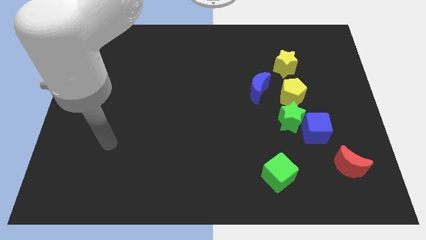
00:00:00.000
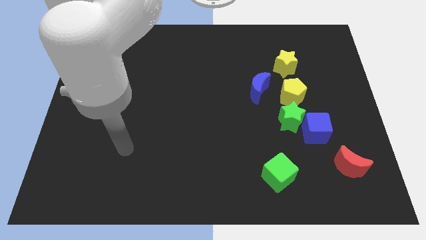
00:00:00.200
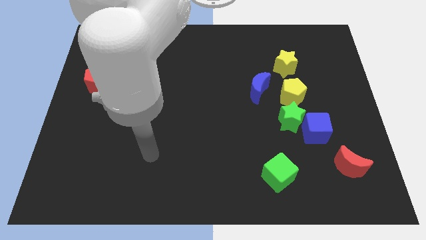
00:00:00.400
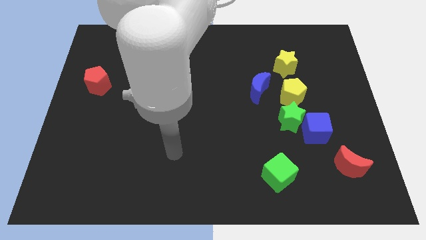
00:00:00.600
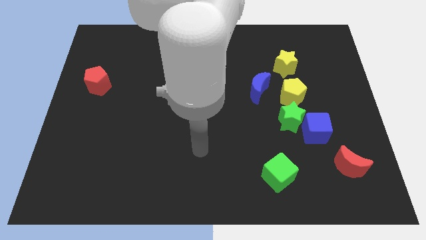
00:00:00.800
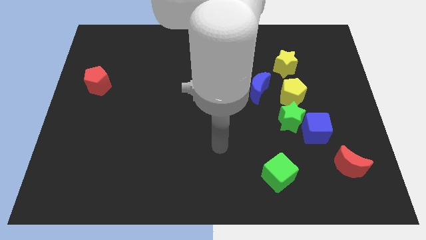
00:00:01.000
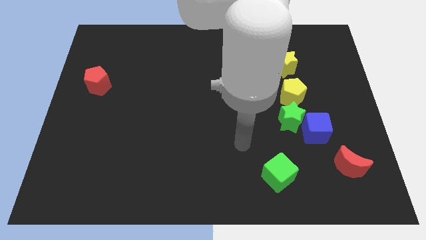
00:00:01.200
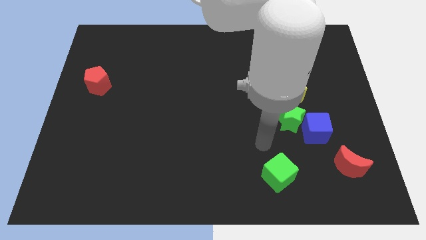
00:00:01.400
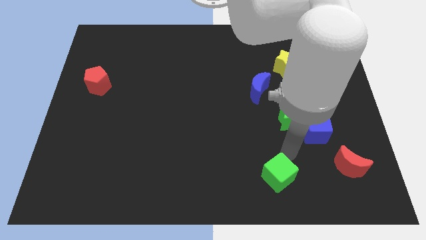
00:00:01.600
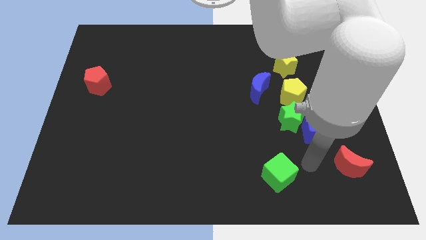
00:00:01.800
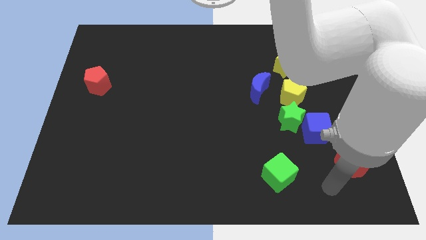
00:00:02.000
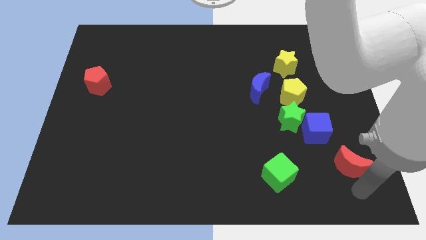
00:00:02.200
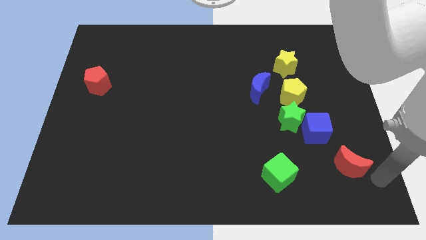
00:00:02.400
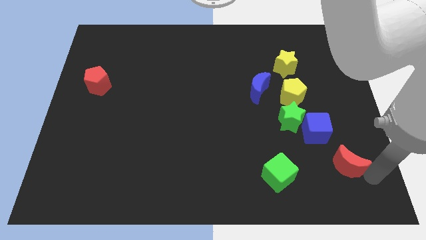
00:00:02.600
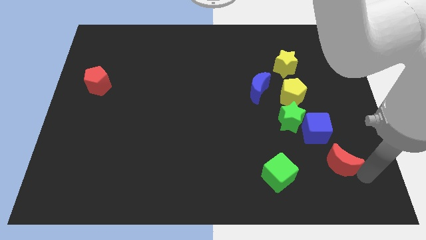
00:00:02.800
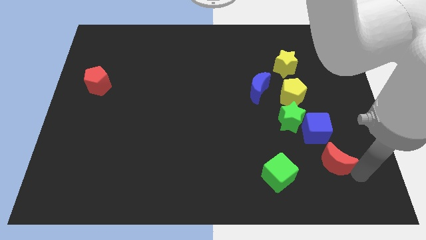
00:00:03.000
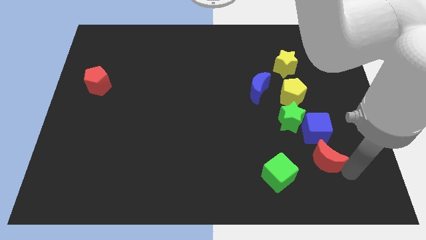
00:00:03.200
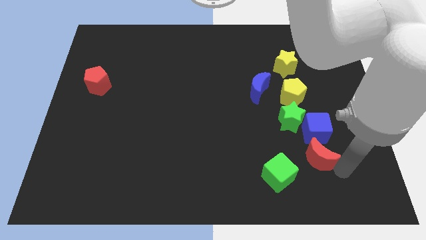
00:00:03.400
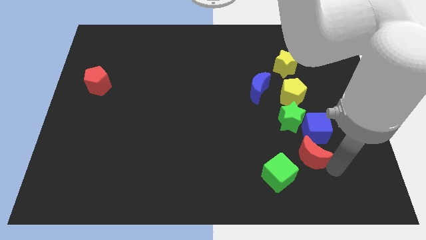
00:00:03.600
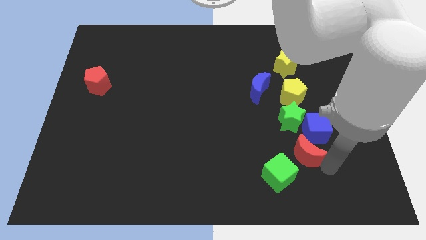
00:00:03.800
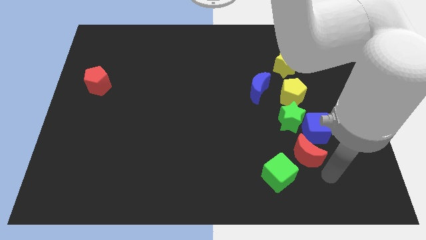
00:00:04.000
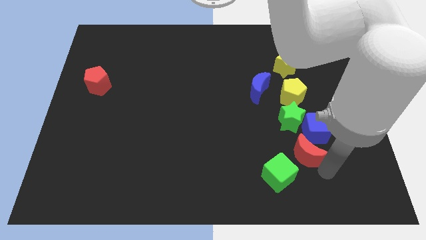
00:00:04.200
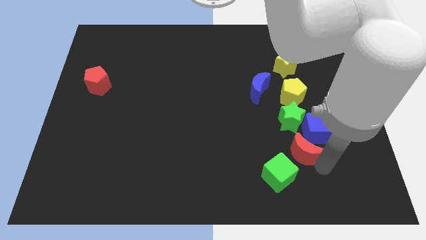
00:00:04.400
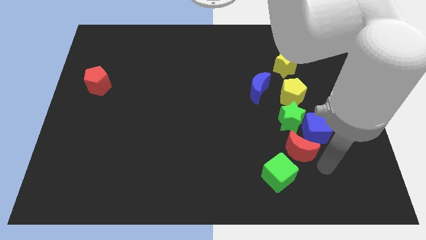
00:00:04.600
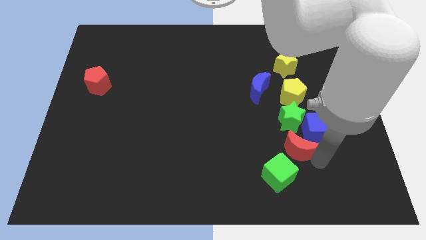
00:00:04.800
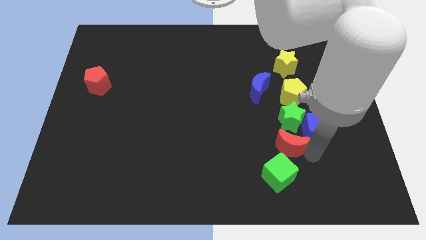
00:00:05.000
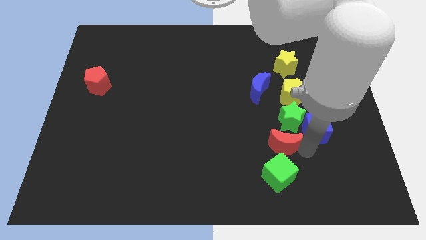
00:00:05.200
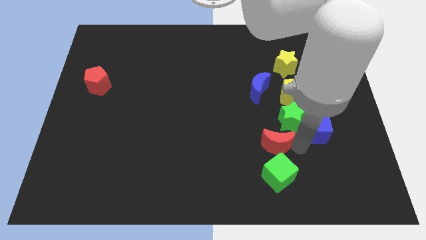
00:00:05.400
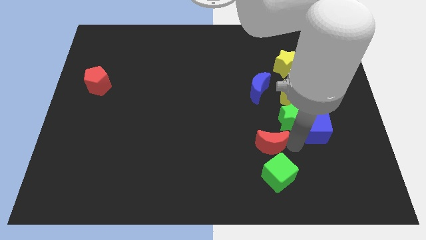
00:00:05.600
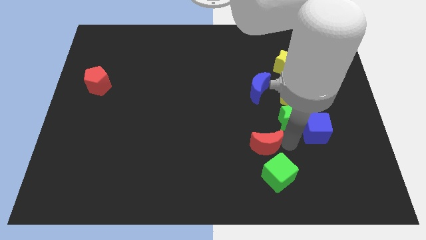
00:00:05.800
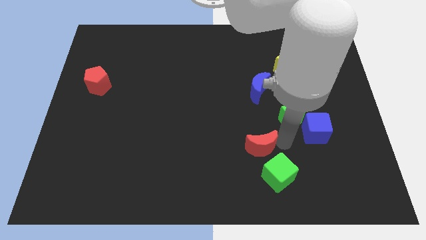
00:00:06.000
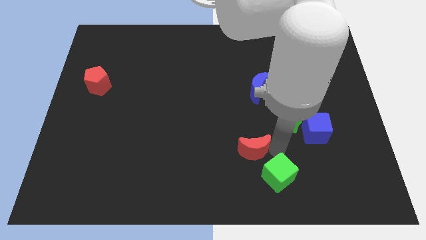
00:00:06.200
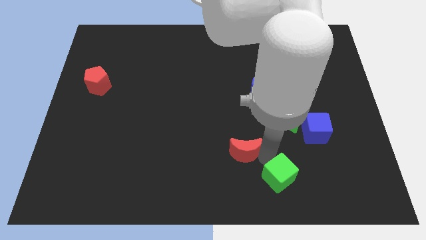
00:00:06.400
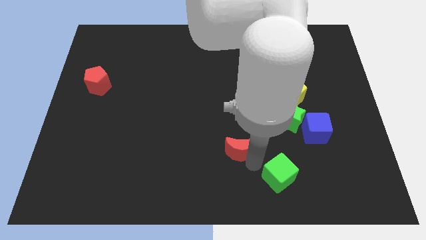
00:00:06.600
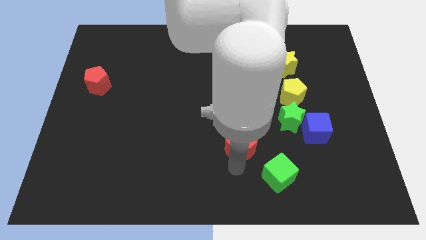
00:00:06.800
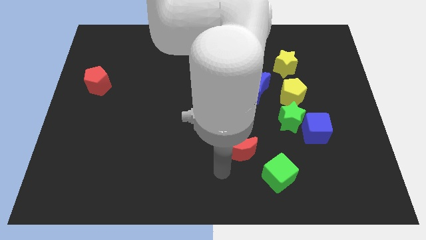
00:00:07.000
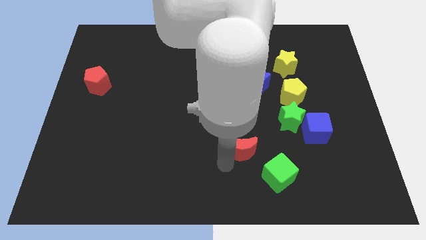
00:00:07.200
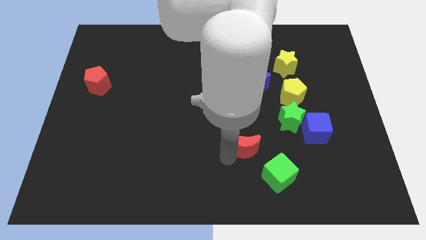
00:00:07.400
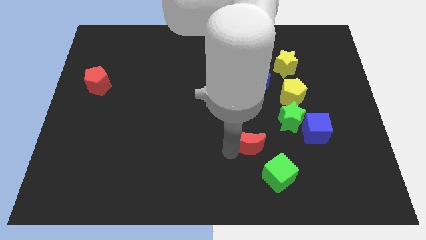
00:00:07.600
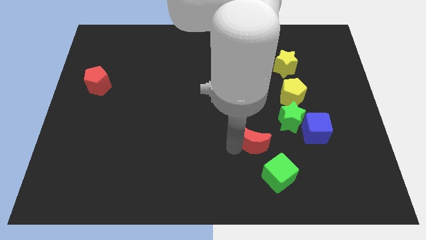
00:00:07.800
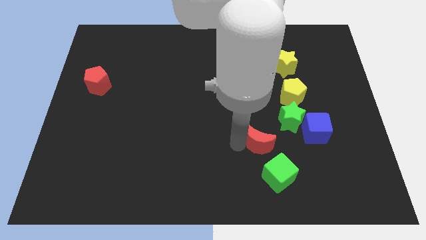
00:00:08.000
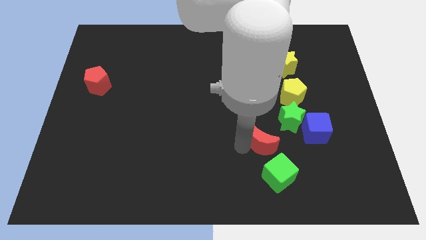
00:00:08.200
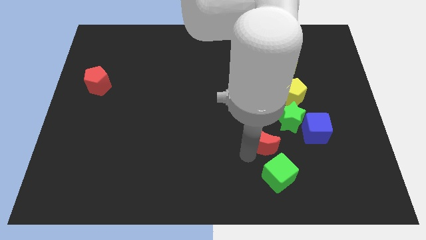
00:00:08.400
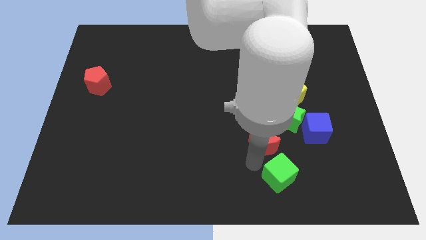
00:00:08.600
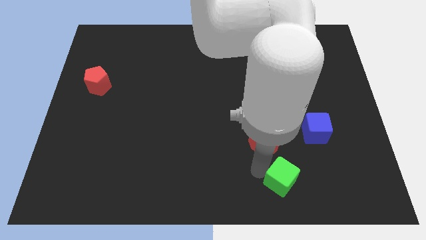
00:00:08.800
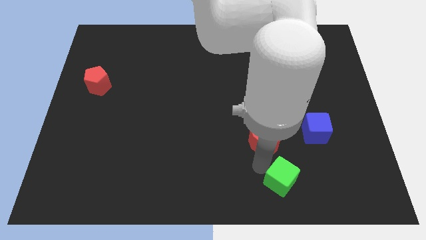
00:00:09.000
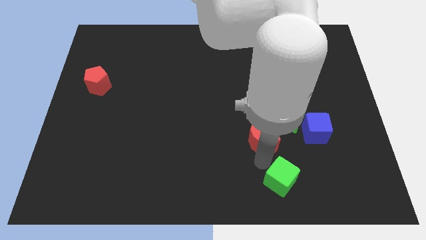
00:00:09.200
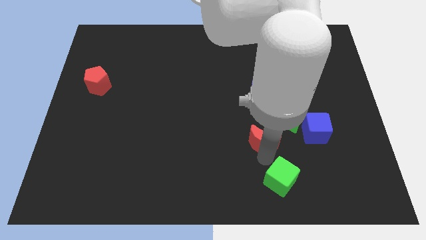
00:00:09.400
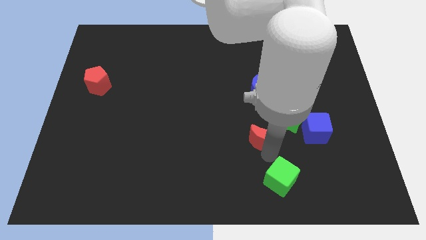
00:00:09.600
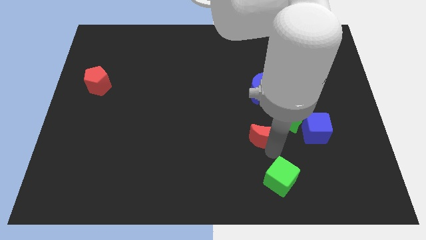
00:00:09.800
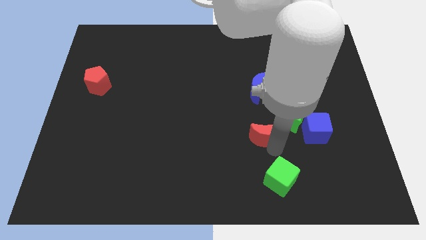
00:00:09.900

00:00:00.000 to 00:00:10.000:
move the red moon to the left of the green star

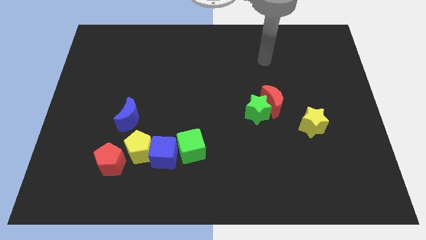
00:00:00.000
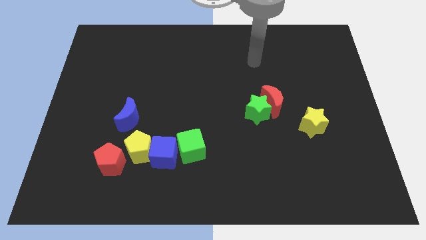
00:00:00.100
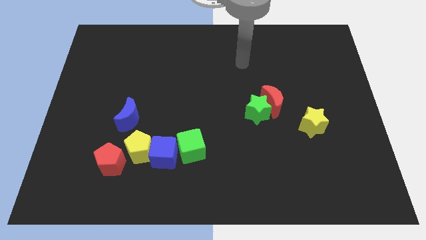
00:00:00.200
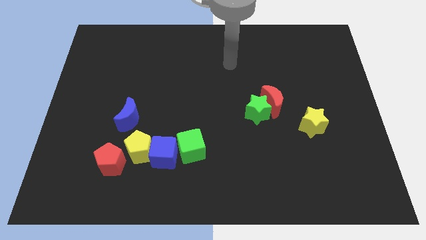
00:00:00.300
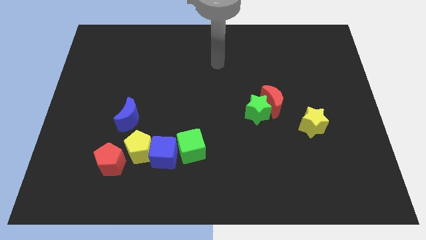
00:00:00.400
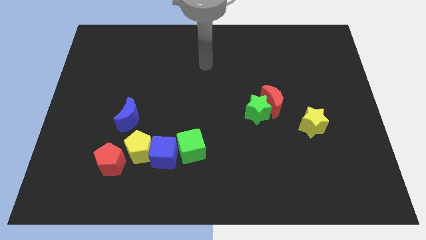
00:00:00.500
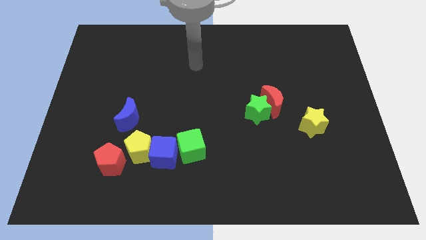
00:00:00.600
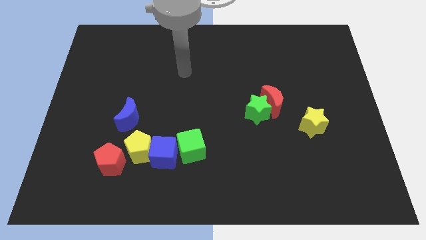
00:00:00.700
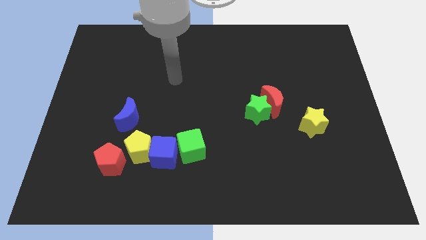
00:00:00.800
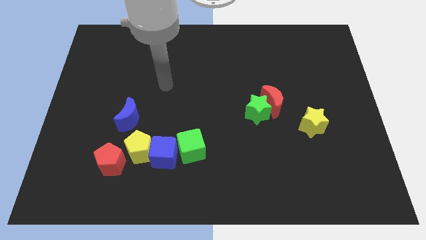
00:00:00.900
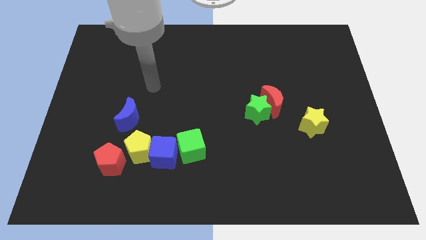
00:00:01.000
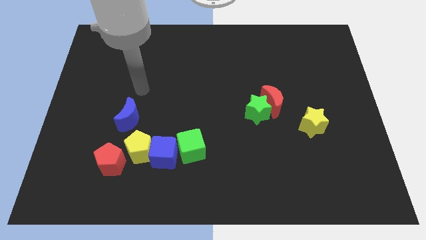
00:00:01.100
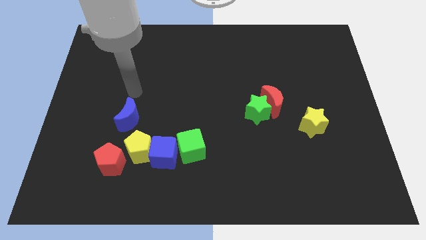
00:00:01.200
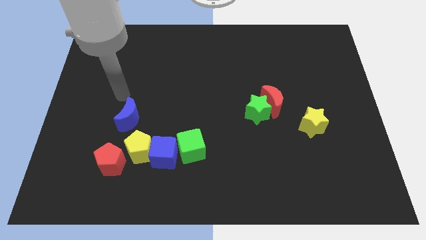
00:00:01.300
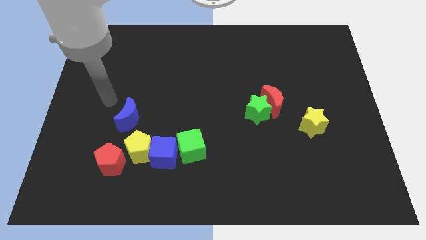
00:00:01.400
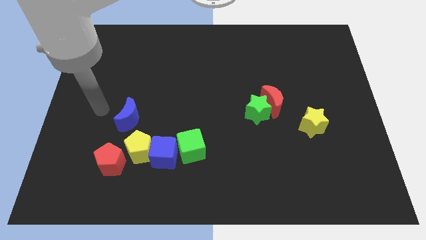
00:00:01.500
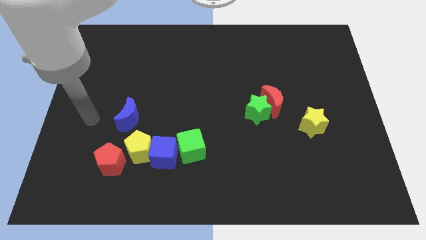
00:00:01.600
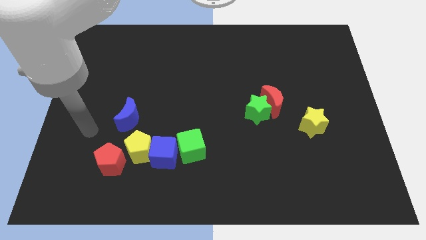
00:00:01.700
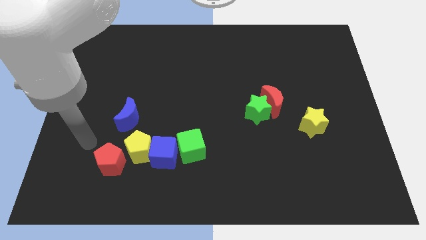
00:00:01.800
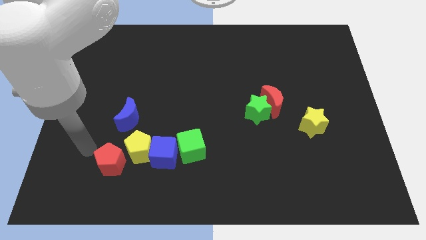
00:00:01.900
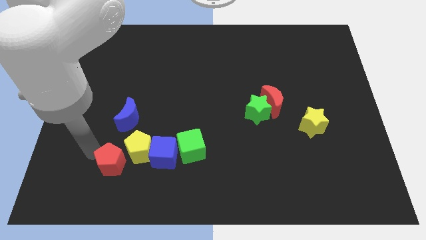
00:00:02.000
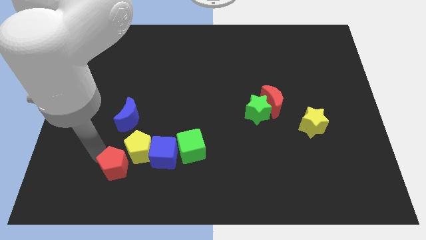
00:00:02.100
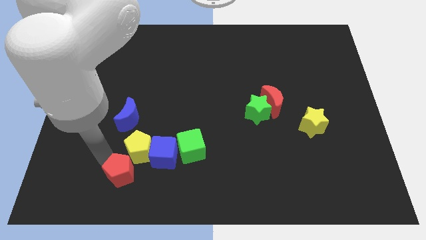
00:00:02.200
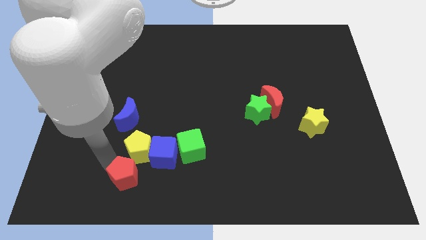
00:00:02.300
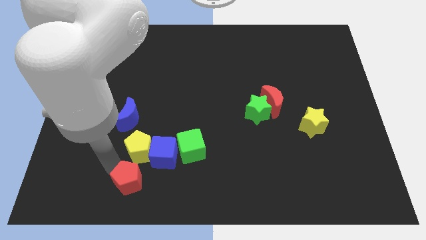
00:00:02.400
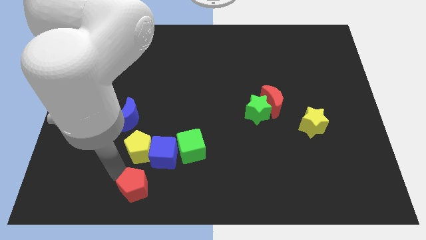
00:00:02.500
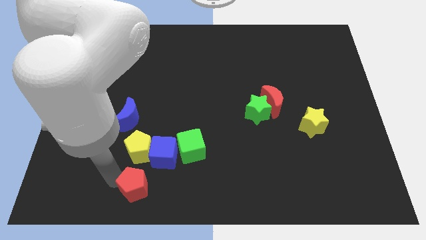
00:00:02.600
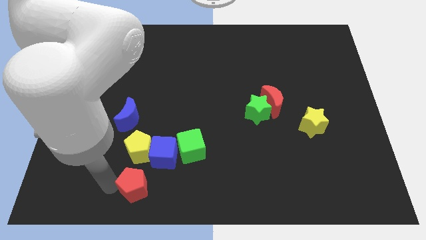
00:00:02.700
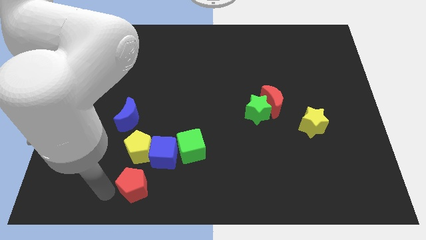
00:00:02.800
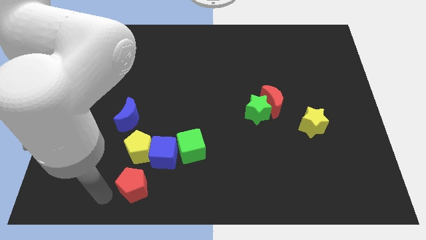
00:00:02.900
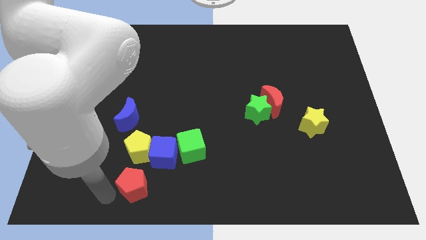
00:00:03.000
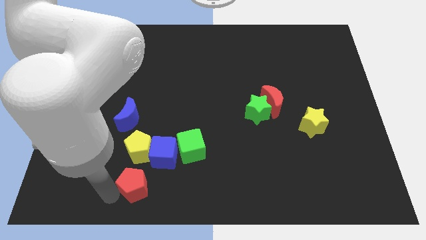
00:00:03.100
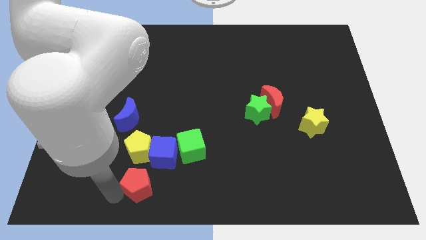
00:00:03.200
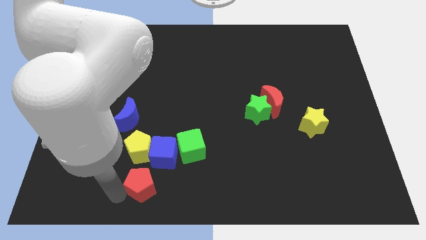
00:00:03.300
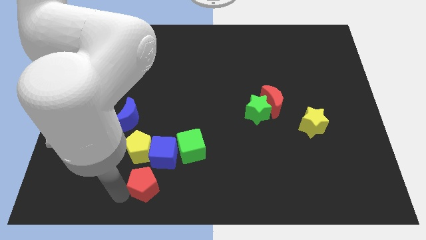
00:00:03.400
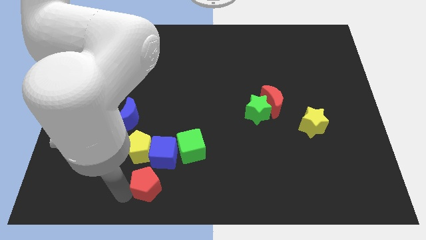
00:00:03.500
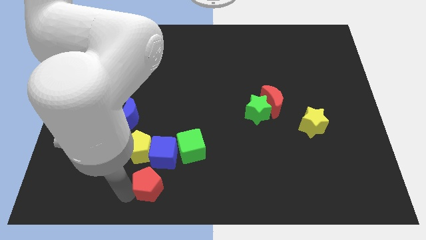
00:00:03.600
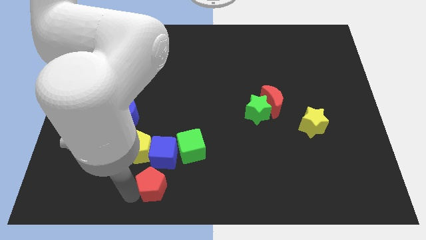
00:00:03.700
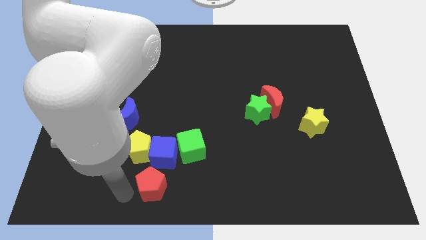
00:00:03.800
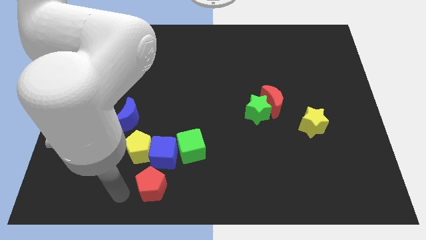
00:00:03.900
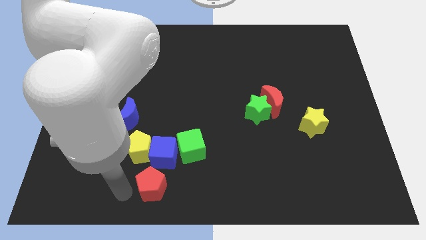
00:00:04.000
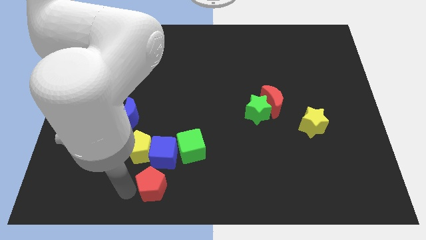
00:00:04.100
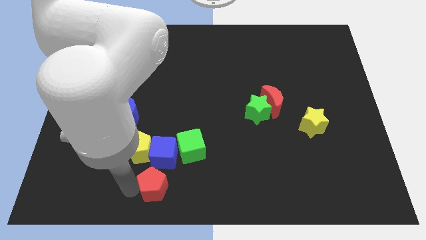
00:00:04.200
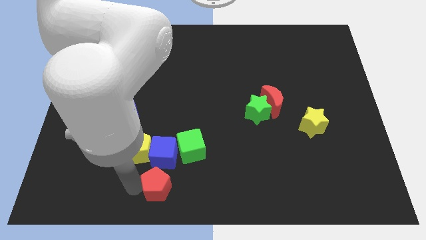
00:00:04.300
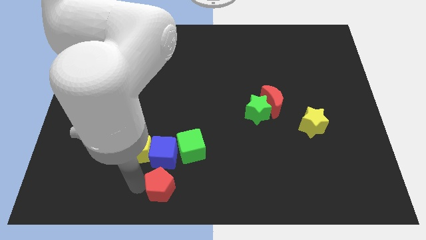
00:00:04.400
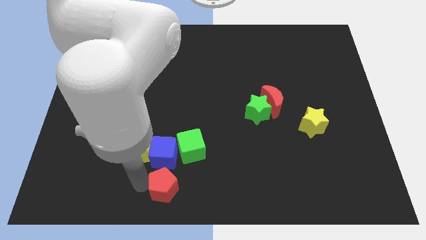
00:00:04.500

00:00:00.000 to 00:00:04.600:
move the red pentagon to the bottom right of the blue cube
